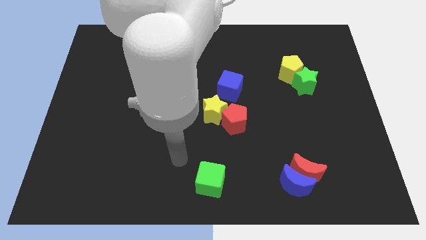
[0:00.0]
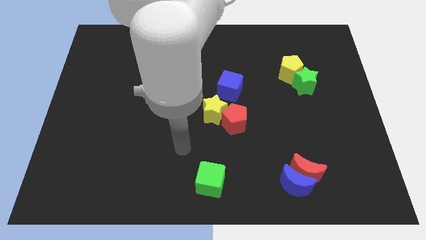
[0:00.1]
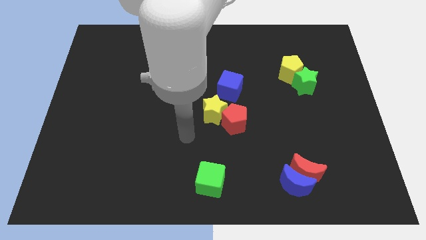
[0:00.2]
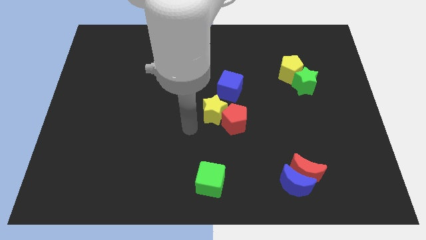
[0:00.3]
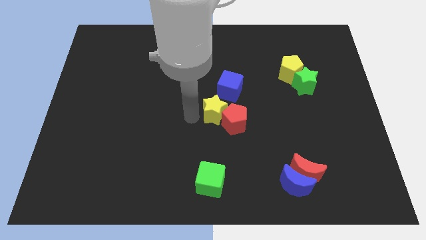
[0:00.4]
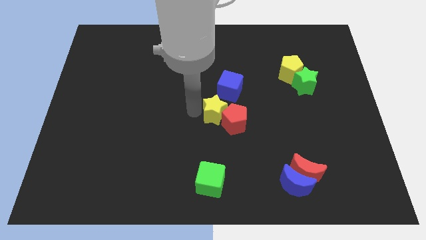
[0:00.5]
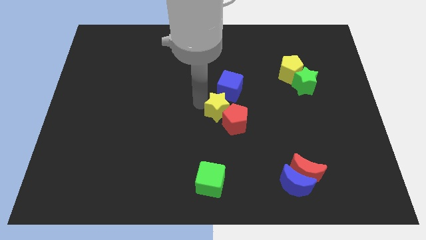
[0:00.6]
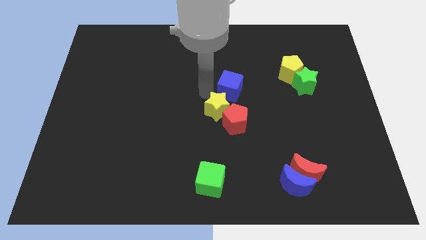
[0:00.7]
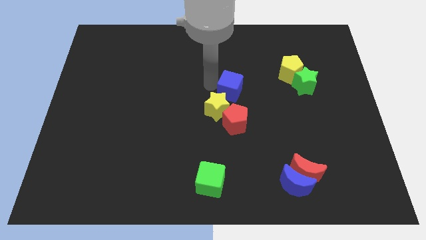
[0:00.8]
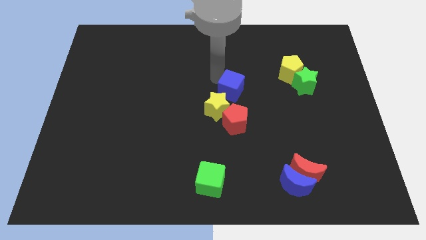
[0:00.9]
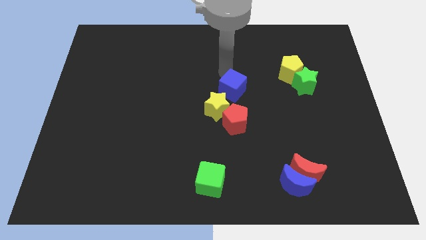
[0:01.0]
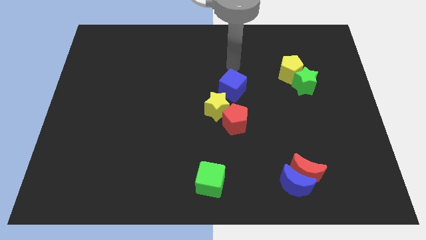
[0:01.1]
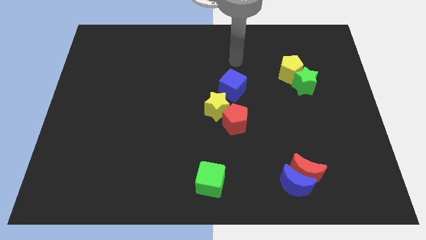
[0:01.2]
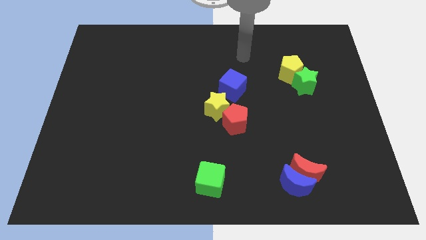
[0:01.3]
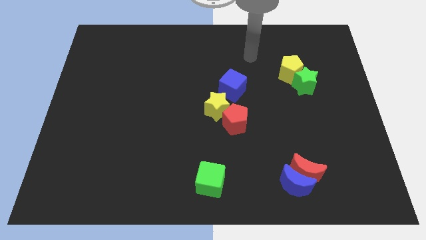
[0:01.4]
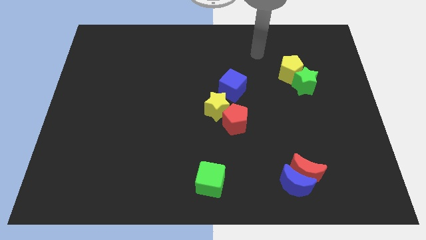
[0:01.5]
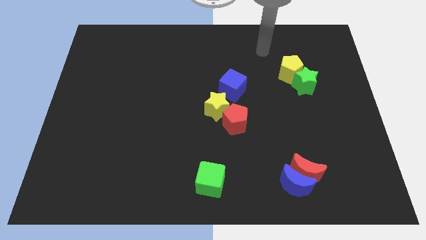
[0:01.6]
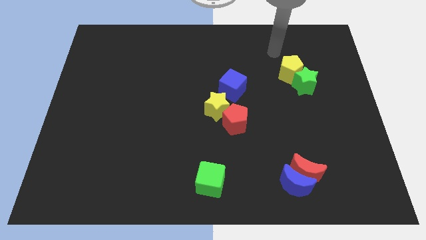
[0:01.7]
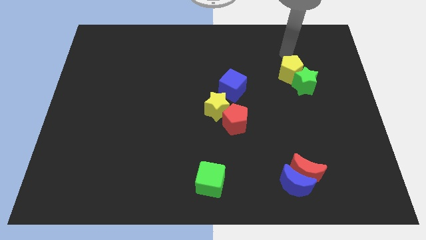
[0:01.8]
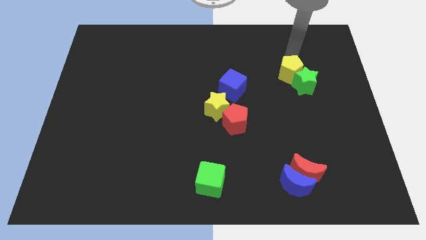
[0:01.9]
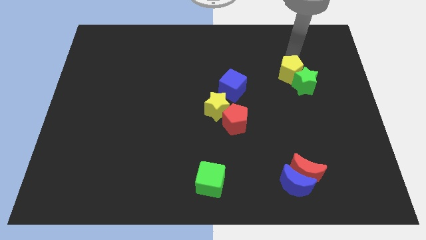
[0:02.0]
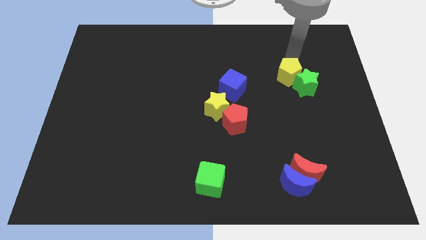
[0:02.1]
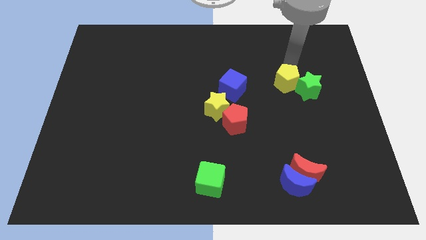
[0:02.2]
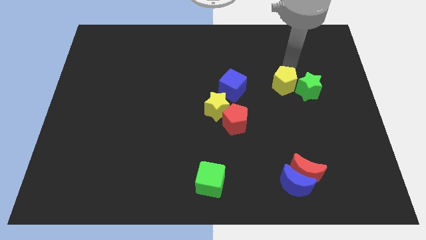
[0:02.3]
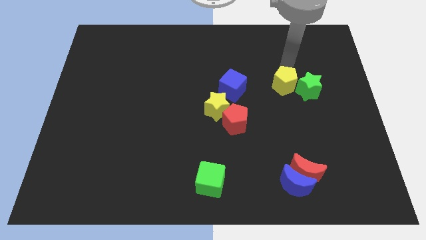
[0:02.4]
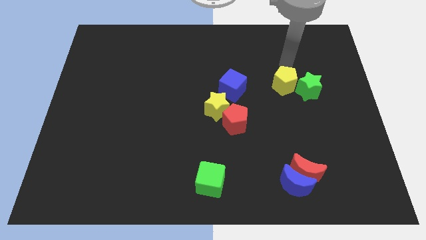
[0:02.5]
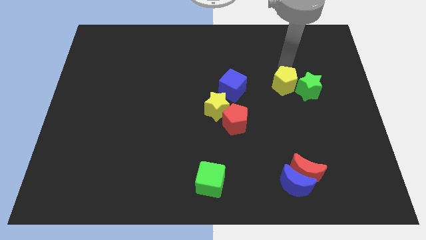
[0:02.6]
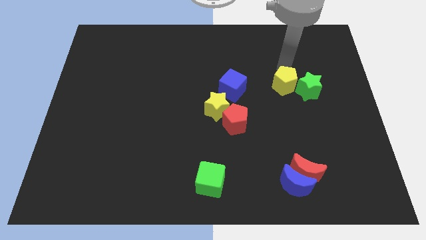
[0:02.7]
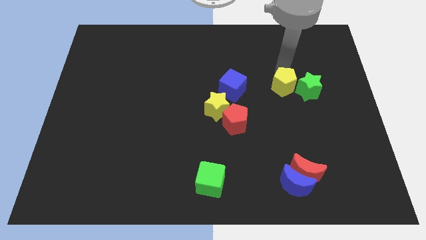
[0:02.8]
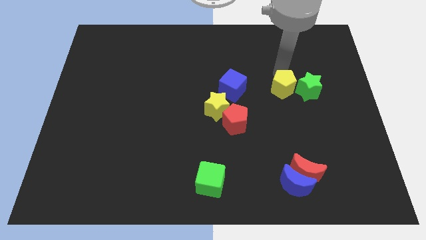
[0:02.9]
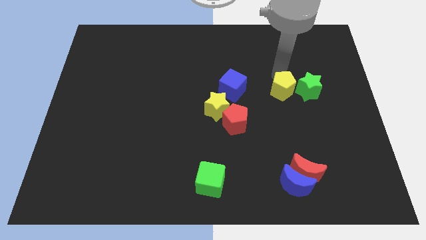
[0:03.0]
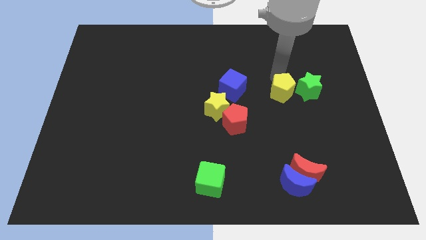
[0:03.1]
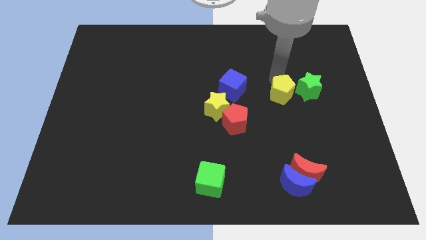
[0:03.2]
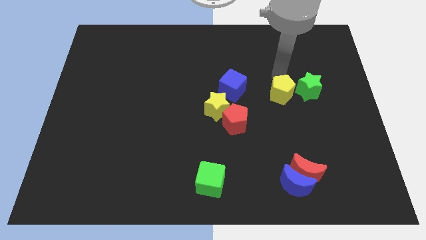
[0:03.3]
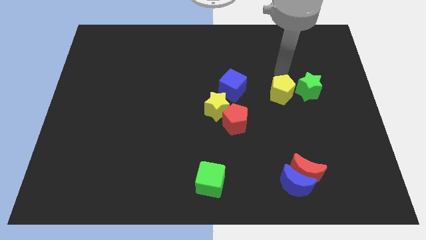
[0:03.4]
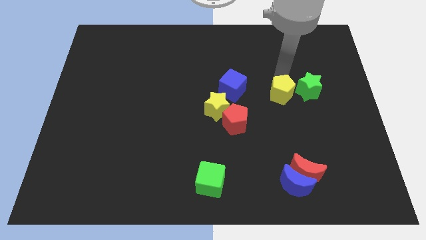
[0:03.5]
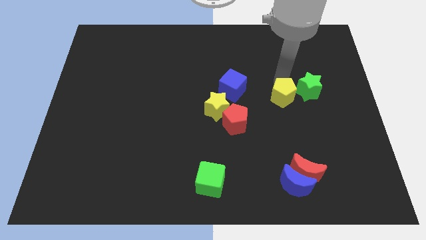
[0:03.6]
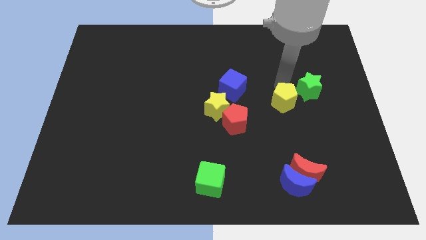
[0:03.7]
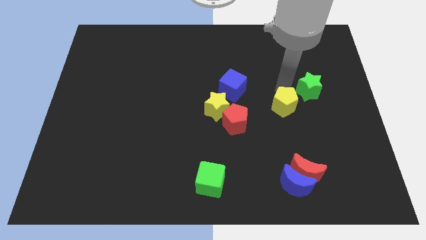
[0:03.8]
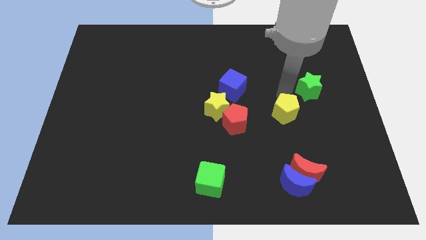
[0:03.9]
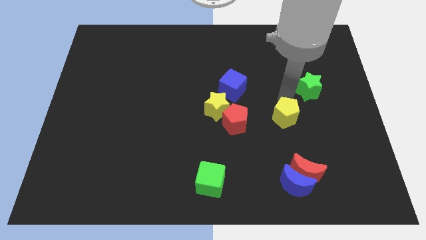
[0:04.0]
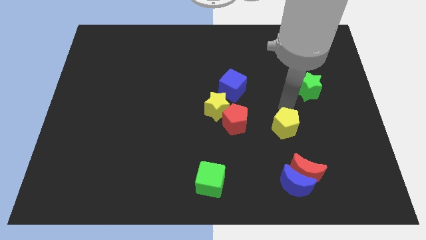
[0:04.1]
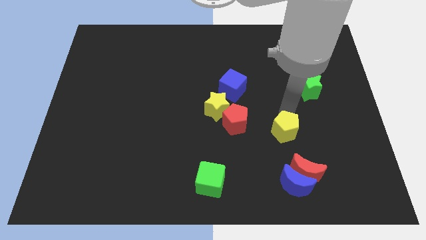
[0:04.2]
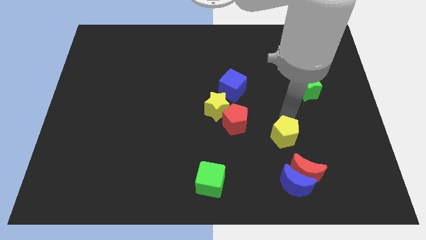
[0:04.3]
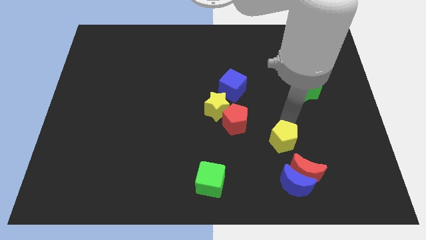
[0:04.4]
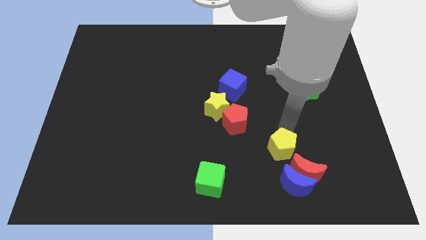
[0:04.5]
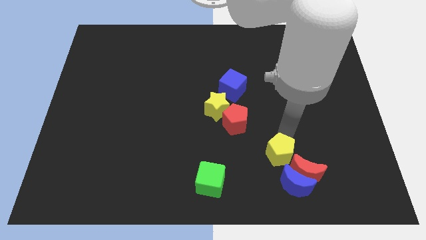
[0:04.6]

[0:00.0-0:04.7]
move the yellow pentagon to the top left side of the blue moon

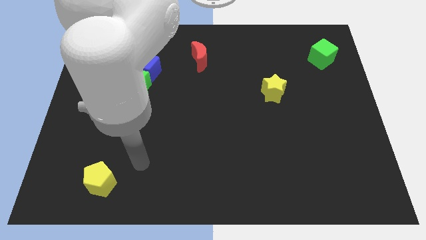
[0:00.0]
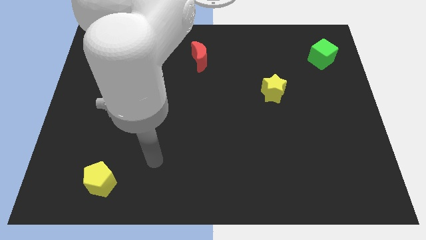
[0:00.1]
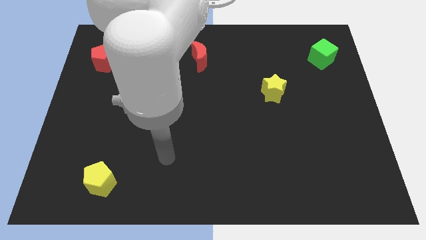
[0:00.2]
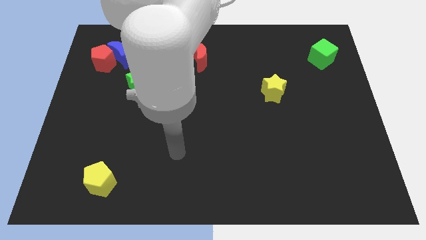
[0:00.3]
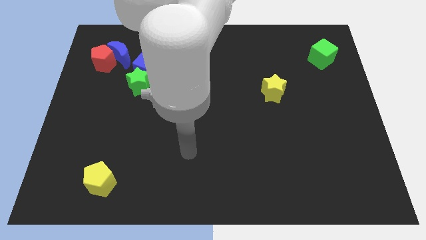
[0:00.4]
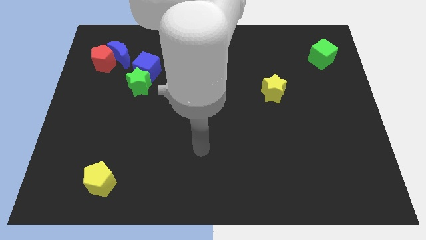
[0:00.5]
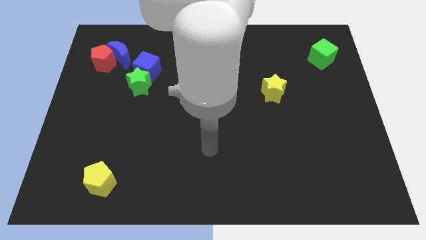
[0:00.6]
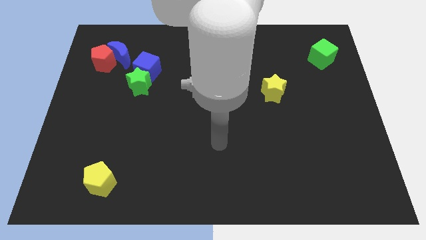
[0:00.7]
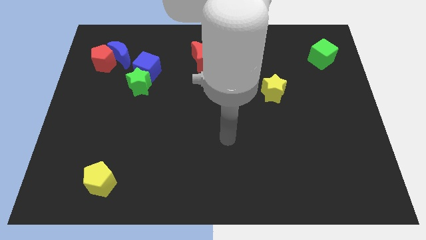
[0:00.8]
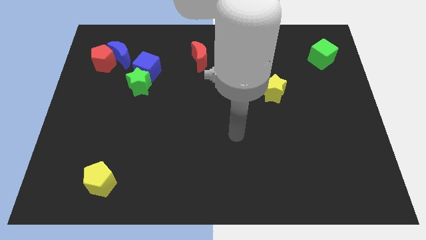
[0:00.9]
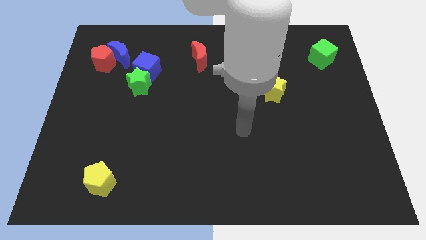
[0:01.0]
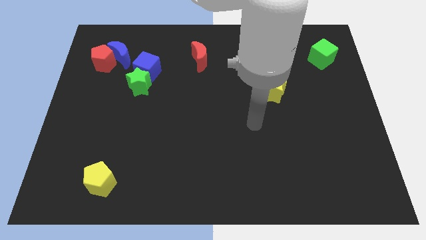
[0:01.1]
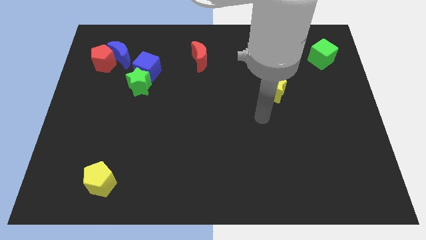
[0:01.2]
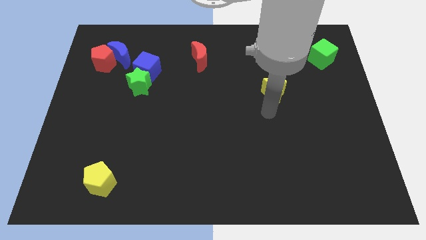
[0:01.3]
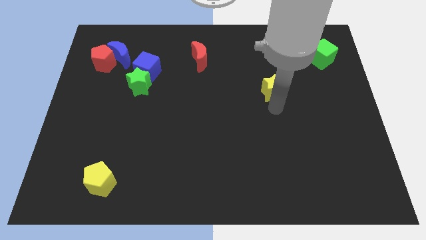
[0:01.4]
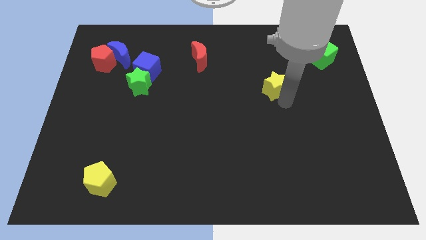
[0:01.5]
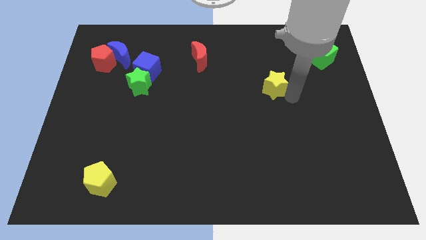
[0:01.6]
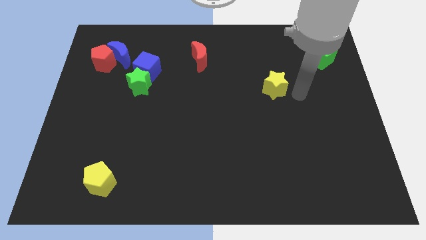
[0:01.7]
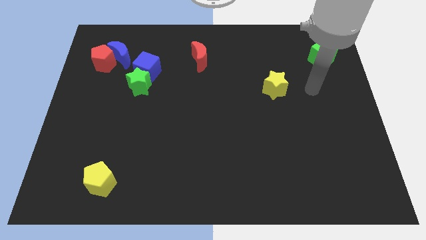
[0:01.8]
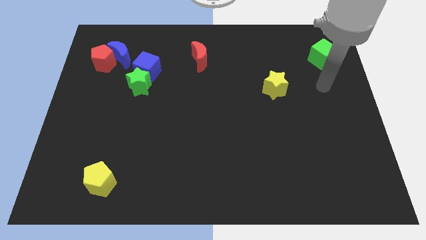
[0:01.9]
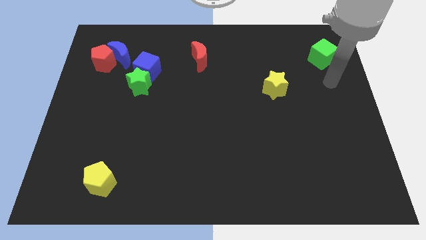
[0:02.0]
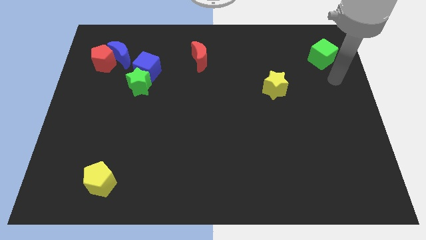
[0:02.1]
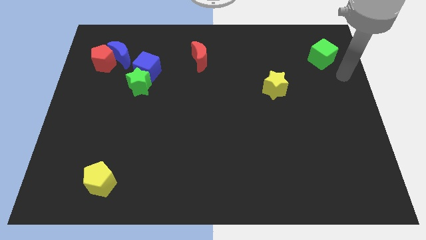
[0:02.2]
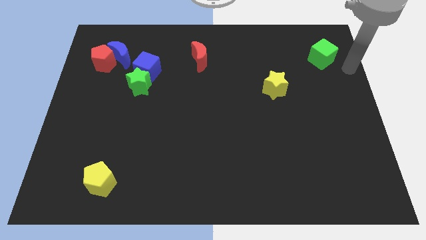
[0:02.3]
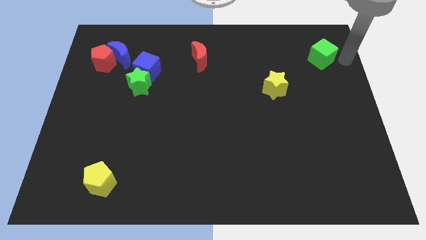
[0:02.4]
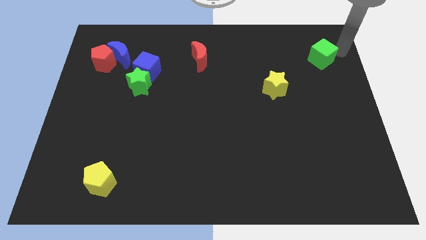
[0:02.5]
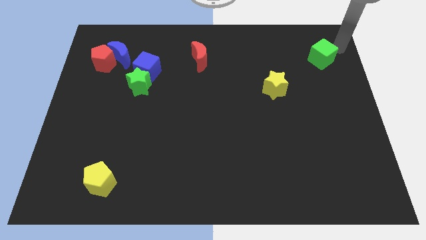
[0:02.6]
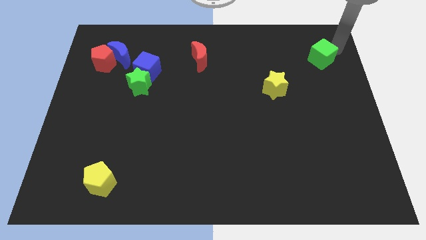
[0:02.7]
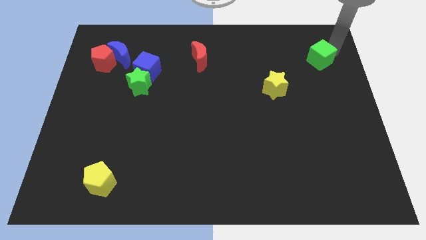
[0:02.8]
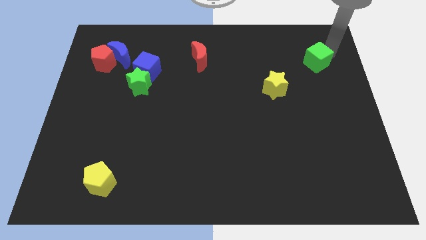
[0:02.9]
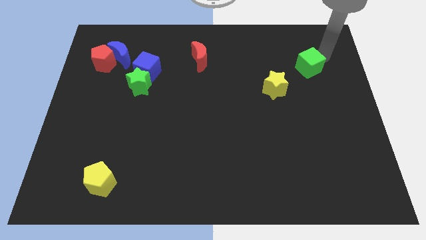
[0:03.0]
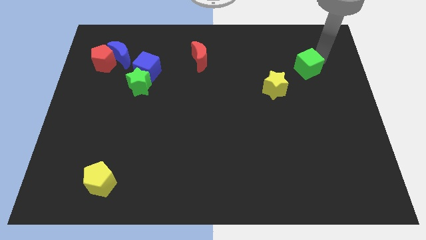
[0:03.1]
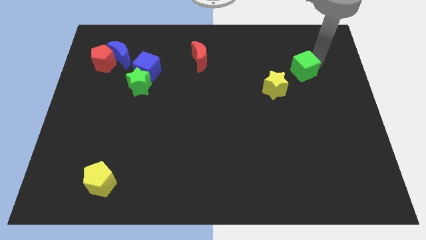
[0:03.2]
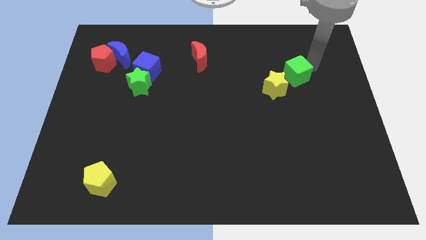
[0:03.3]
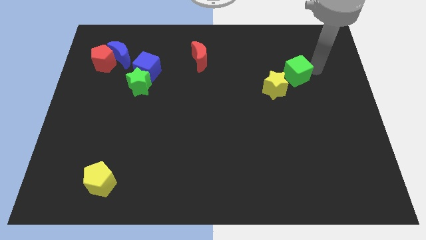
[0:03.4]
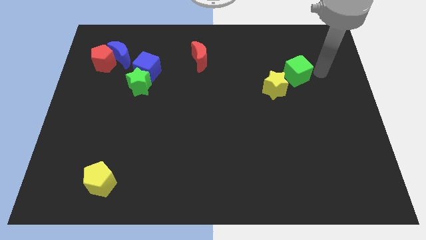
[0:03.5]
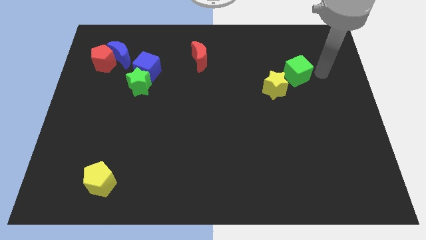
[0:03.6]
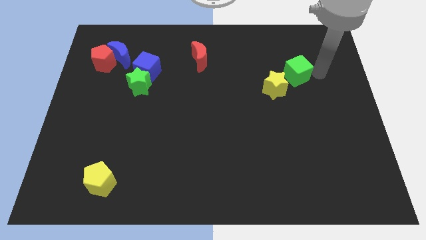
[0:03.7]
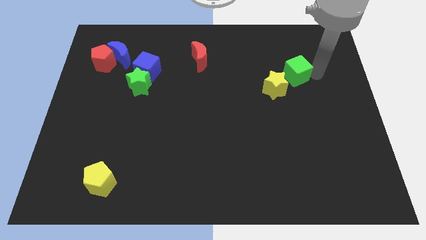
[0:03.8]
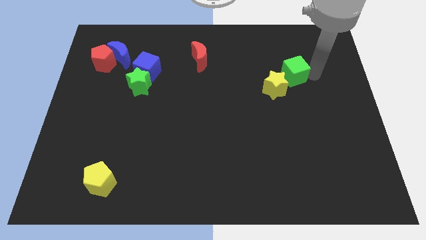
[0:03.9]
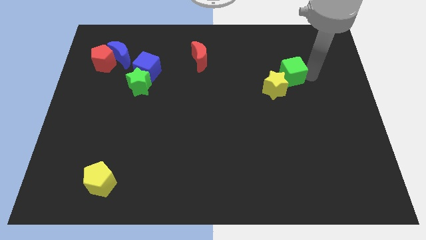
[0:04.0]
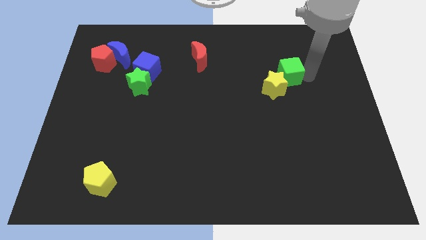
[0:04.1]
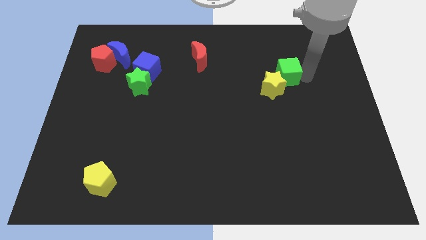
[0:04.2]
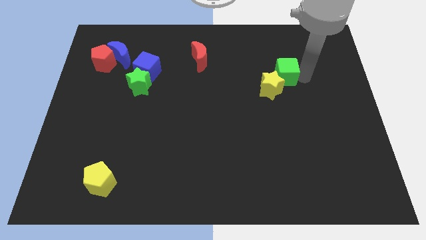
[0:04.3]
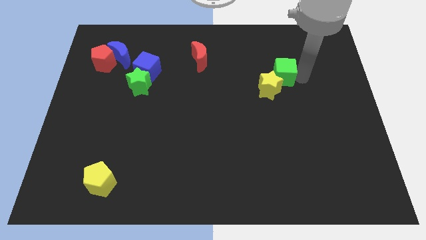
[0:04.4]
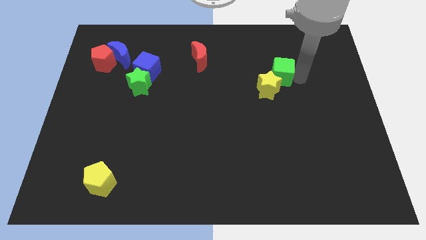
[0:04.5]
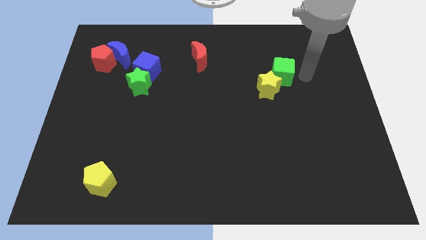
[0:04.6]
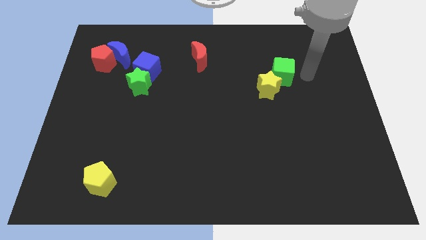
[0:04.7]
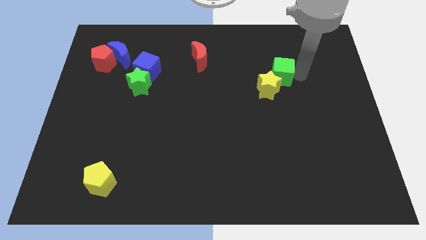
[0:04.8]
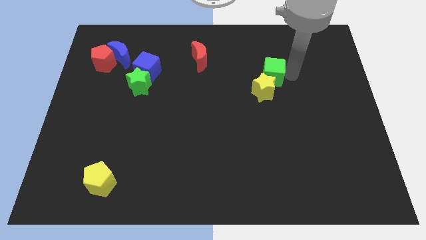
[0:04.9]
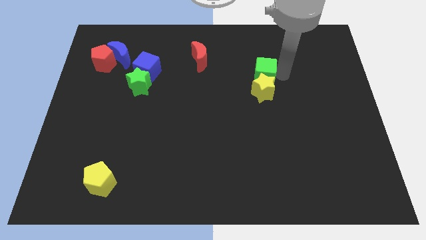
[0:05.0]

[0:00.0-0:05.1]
slide the green cube to the top left of the yellow star
